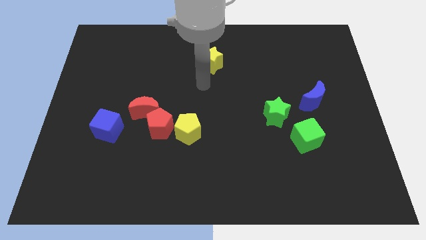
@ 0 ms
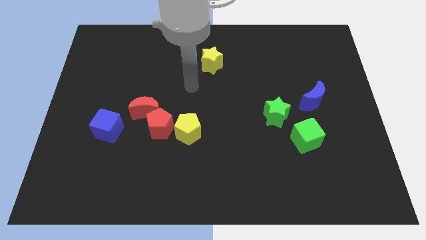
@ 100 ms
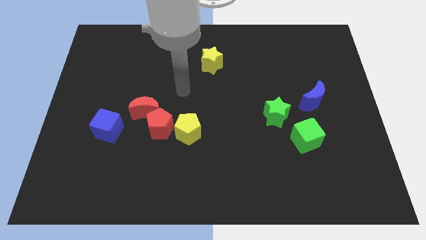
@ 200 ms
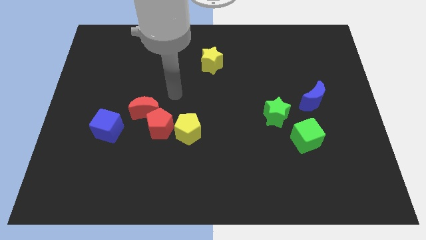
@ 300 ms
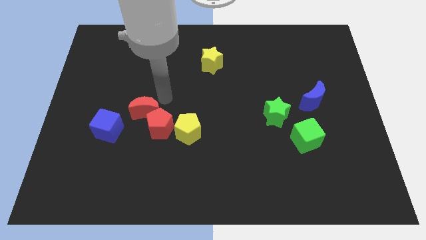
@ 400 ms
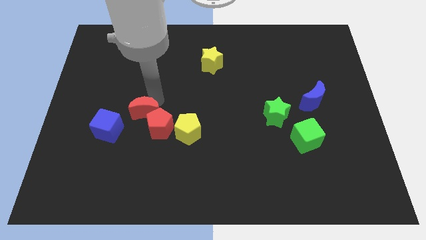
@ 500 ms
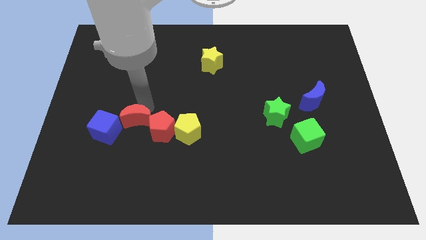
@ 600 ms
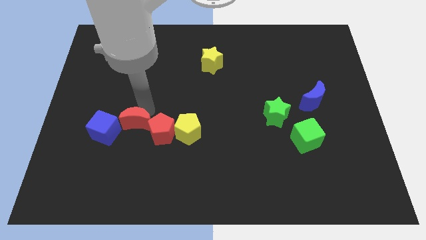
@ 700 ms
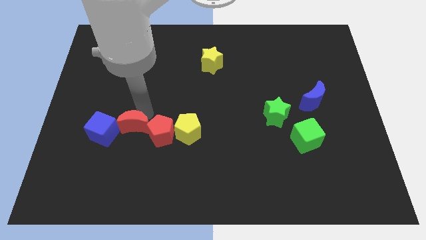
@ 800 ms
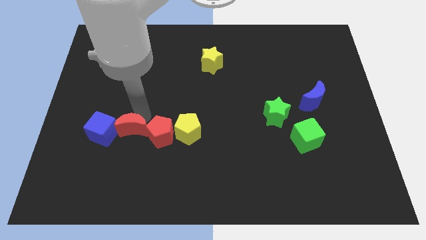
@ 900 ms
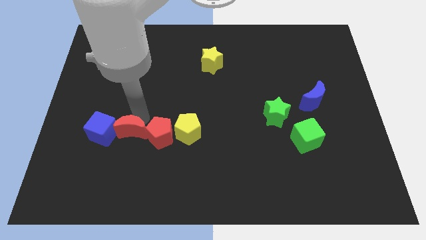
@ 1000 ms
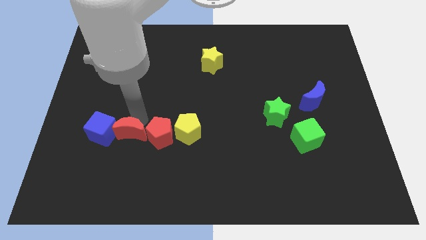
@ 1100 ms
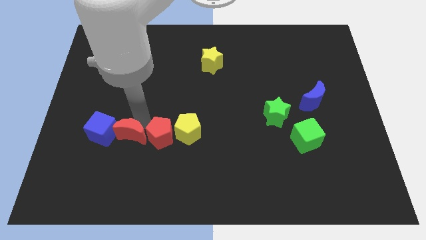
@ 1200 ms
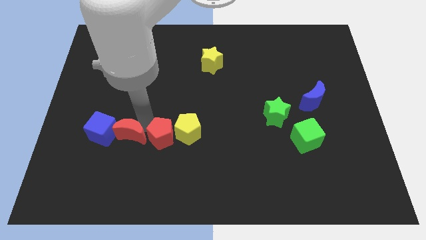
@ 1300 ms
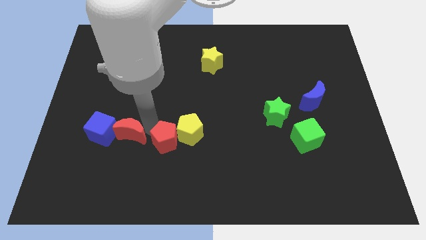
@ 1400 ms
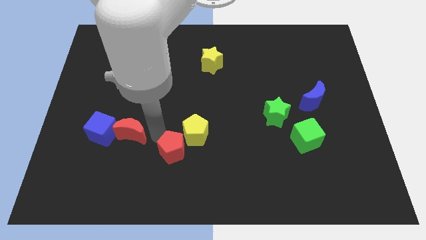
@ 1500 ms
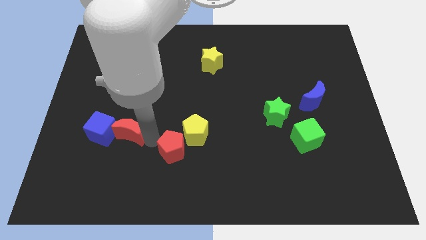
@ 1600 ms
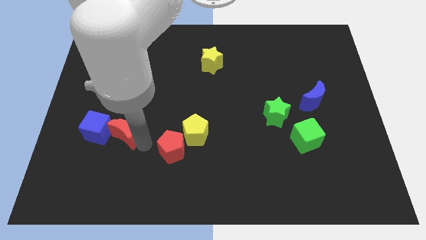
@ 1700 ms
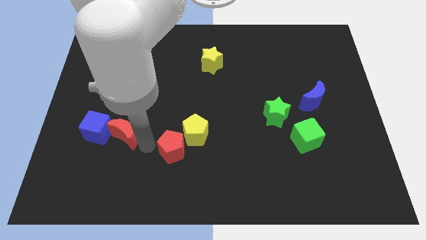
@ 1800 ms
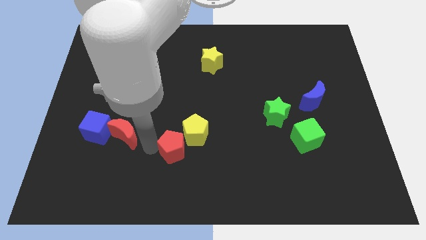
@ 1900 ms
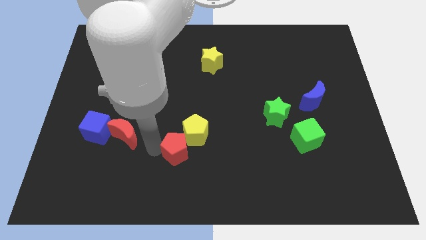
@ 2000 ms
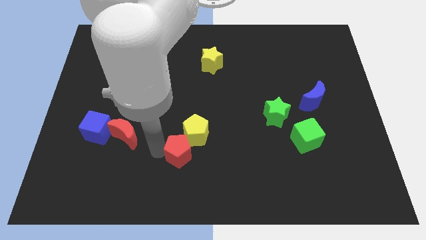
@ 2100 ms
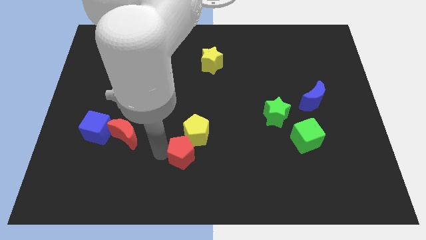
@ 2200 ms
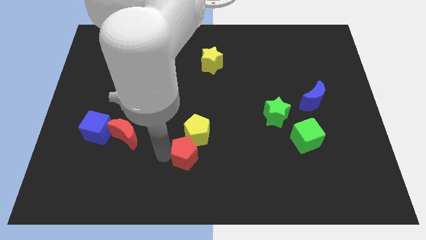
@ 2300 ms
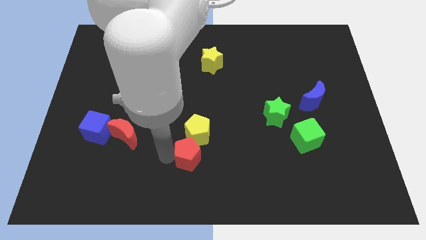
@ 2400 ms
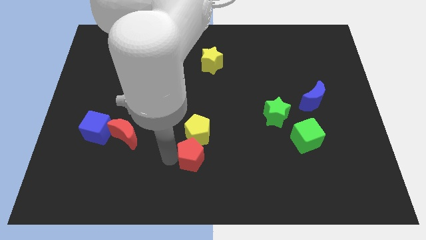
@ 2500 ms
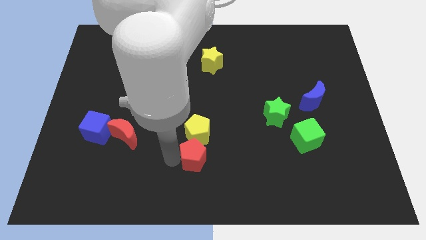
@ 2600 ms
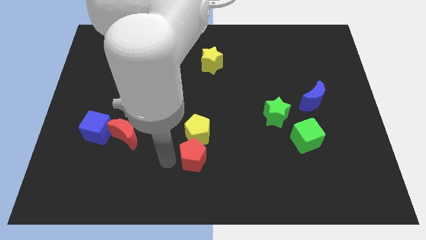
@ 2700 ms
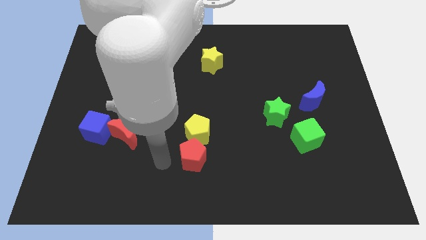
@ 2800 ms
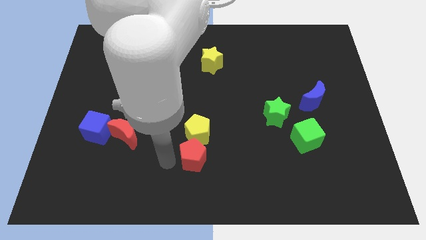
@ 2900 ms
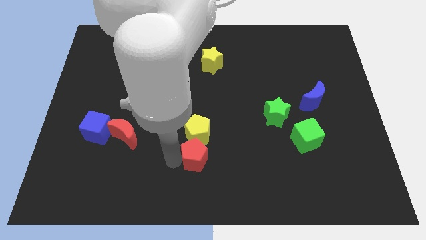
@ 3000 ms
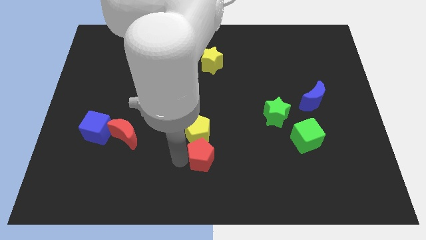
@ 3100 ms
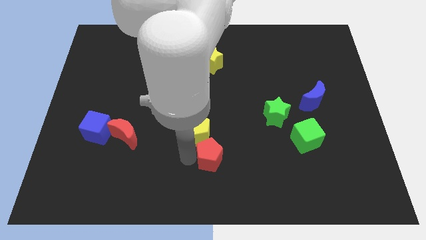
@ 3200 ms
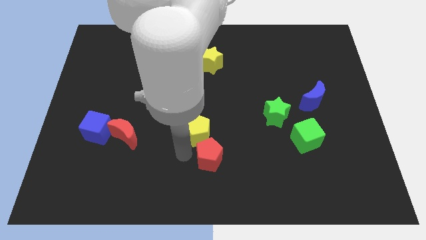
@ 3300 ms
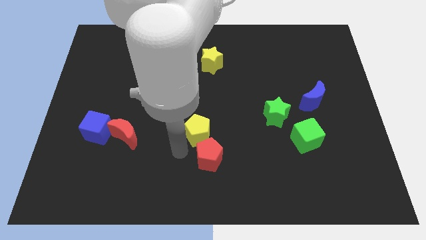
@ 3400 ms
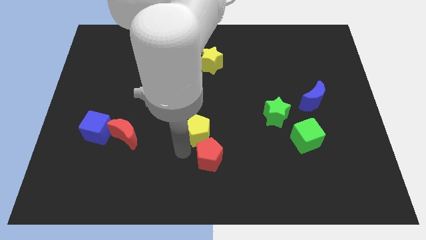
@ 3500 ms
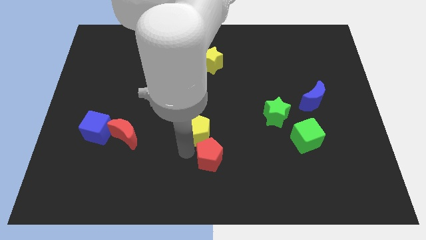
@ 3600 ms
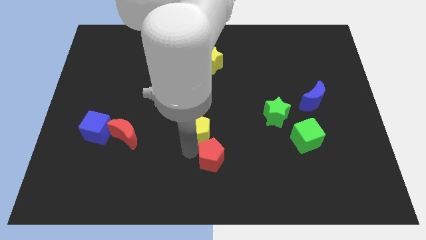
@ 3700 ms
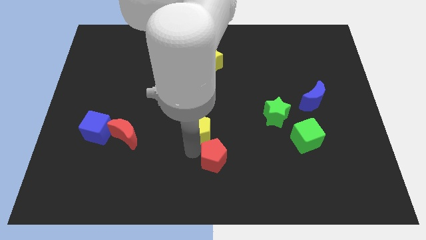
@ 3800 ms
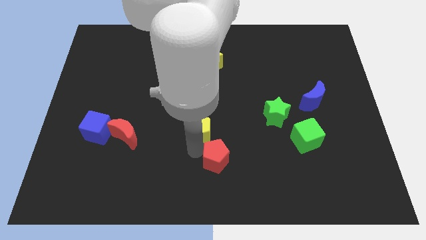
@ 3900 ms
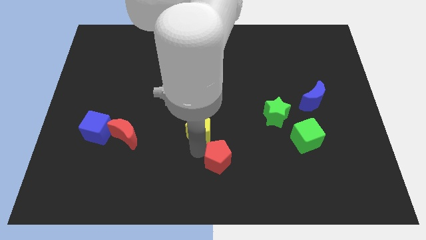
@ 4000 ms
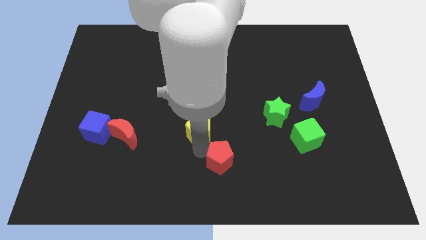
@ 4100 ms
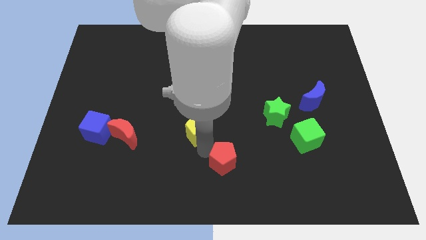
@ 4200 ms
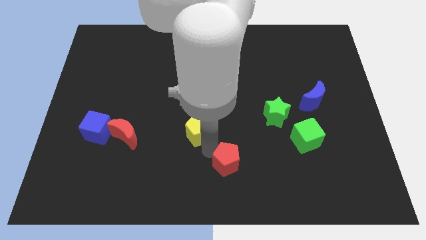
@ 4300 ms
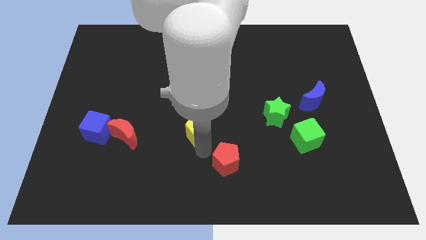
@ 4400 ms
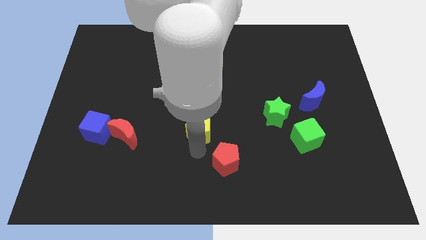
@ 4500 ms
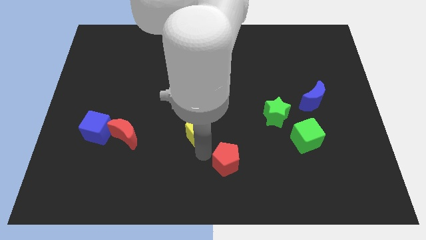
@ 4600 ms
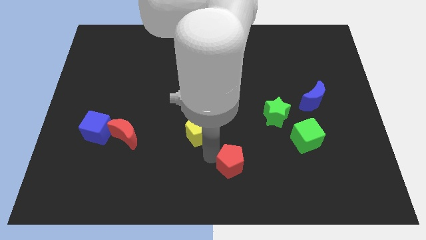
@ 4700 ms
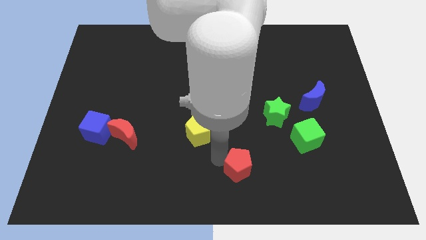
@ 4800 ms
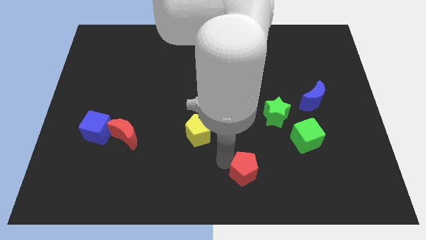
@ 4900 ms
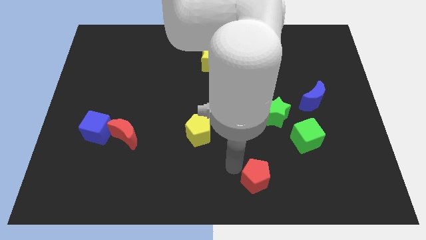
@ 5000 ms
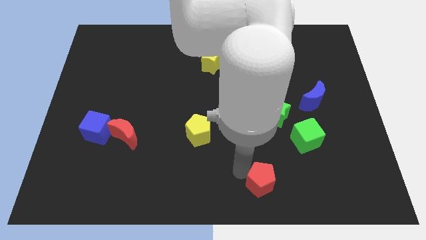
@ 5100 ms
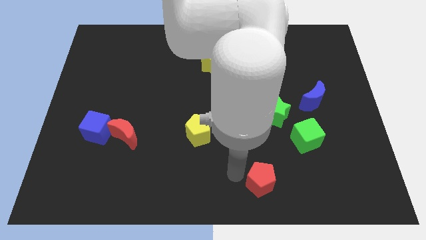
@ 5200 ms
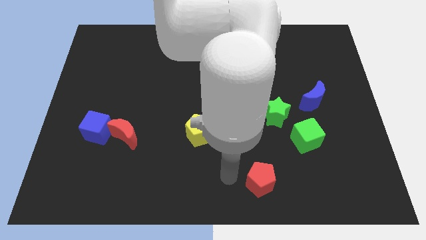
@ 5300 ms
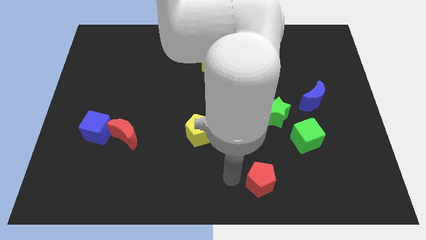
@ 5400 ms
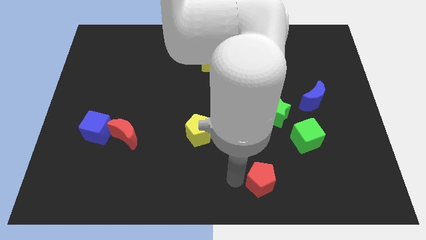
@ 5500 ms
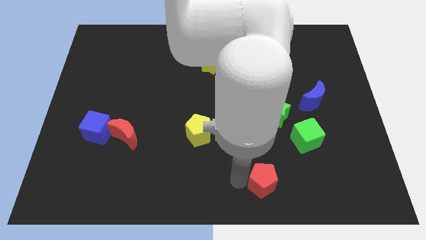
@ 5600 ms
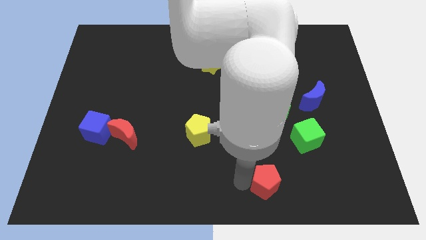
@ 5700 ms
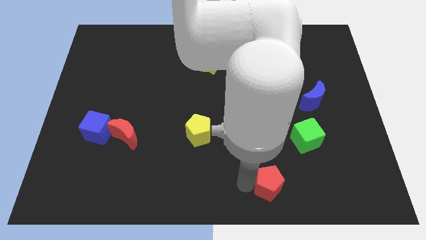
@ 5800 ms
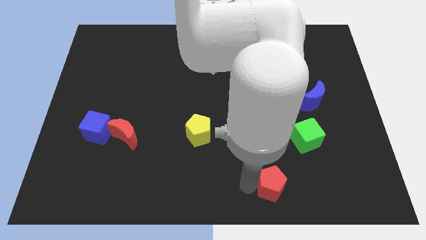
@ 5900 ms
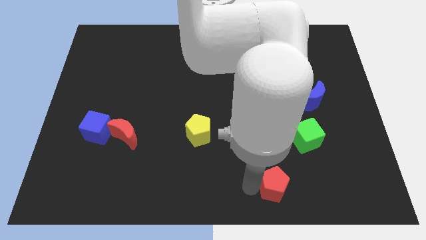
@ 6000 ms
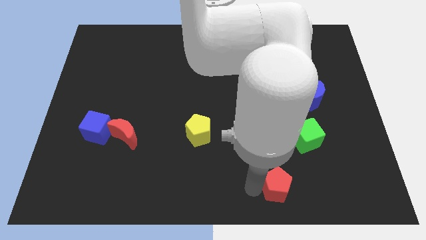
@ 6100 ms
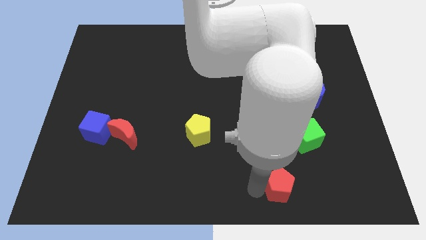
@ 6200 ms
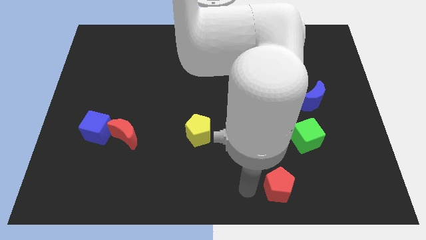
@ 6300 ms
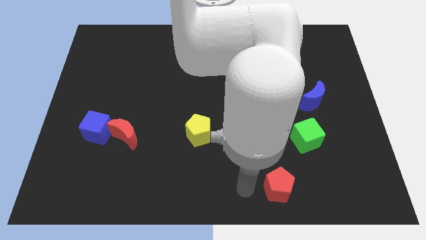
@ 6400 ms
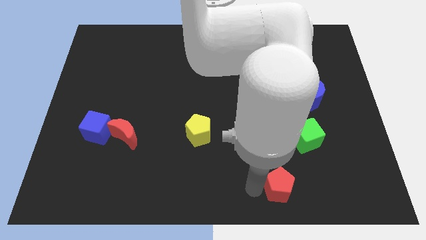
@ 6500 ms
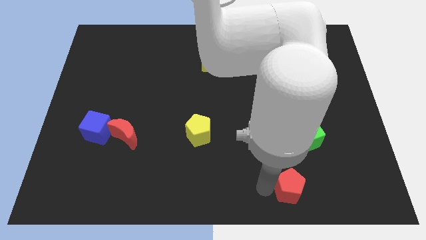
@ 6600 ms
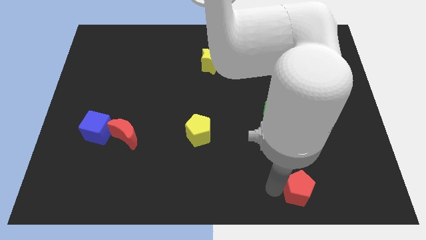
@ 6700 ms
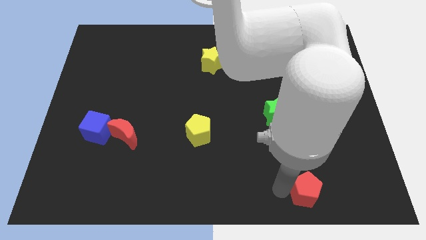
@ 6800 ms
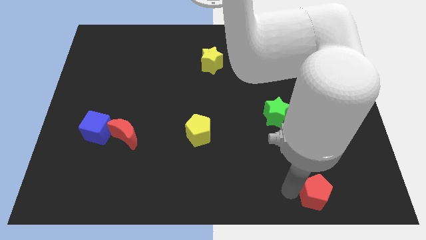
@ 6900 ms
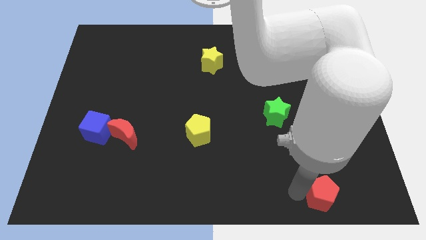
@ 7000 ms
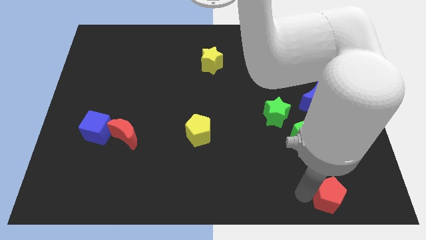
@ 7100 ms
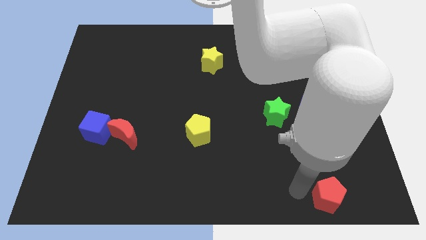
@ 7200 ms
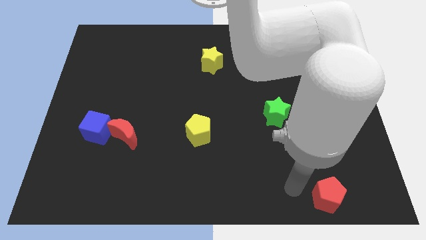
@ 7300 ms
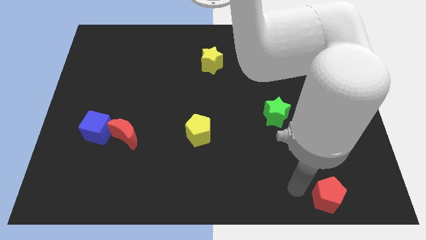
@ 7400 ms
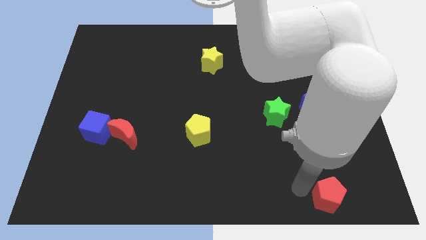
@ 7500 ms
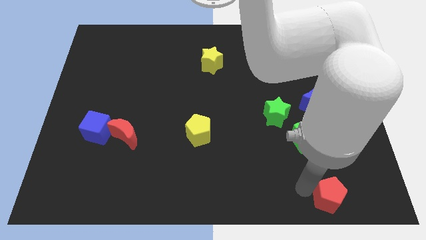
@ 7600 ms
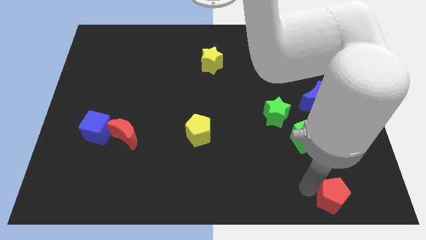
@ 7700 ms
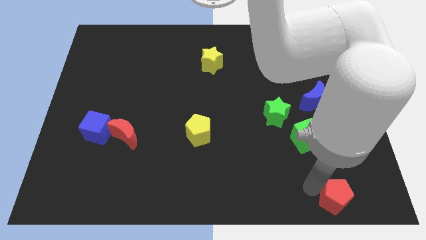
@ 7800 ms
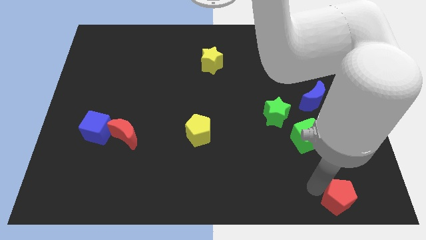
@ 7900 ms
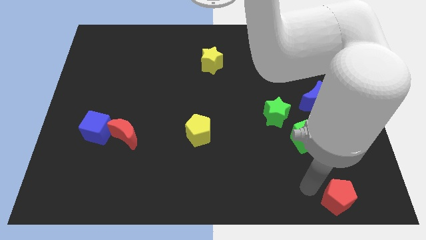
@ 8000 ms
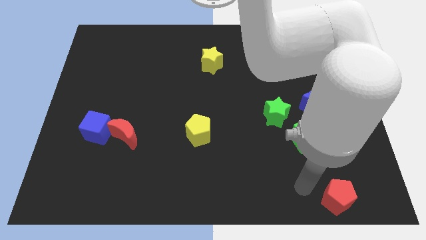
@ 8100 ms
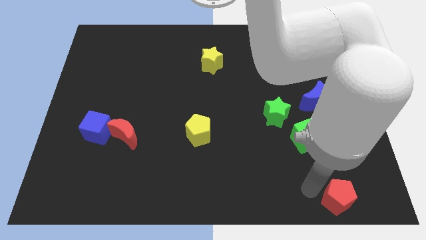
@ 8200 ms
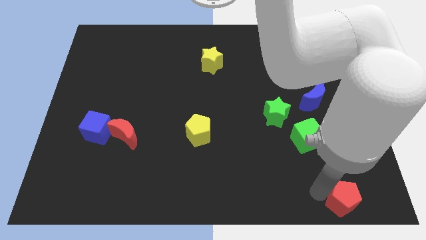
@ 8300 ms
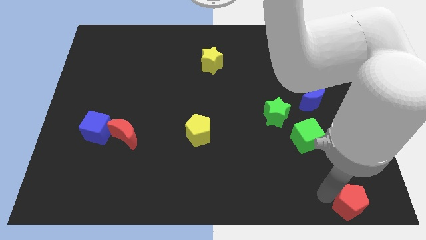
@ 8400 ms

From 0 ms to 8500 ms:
push the red pentagon to the lower right corner
